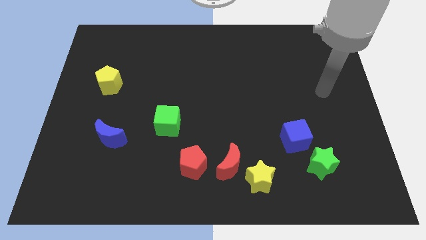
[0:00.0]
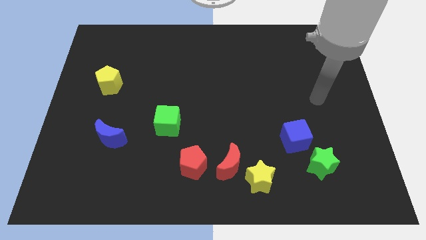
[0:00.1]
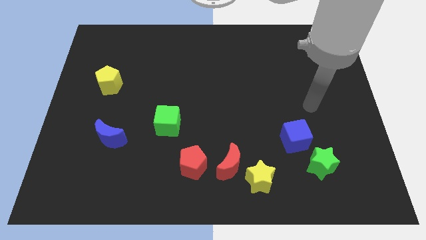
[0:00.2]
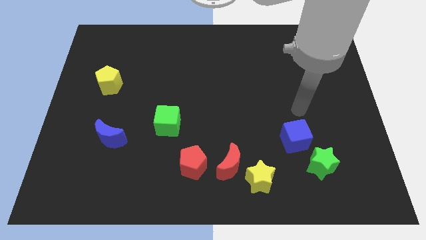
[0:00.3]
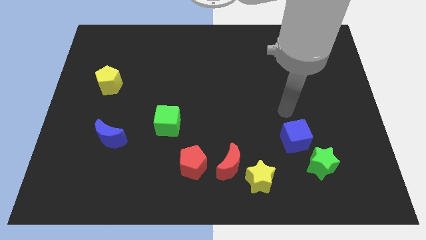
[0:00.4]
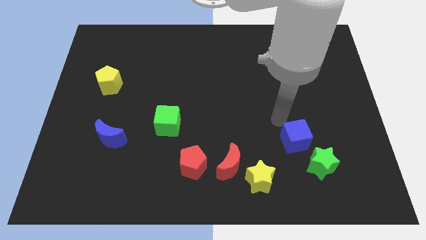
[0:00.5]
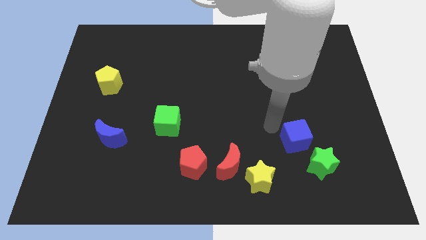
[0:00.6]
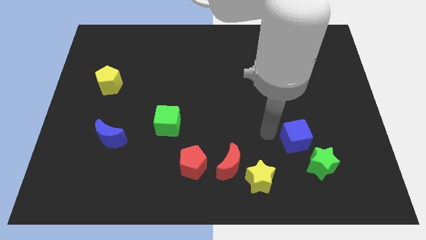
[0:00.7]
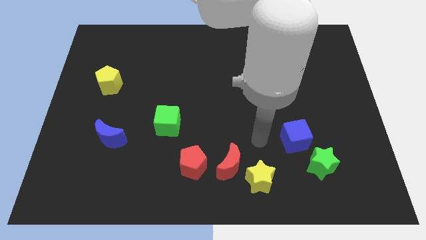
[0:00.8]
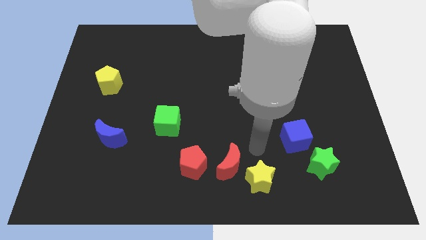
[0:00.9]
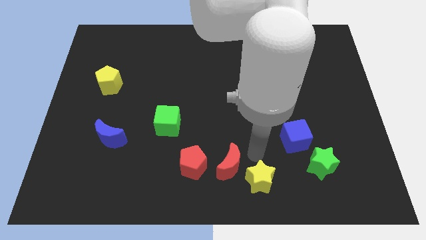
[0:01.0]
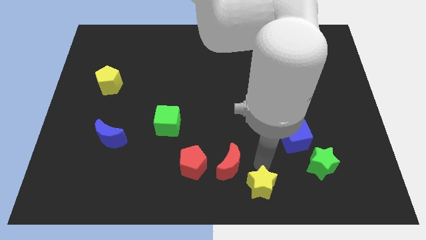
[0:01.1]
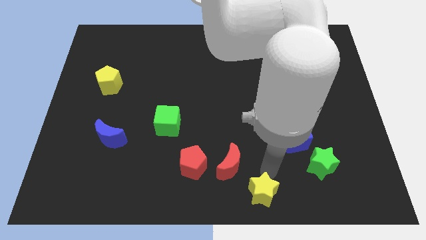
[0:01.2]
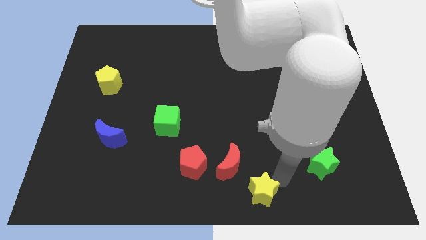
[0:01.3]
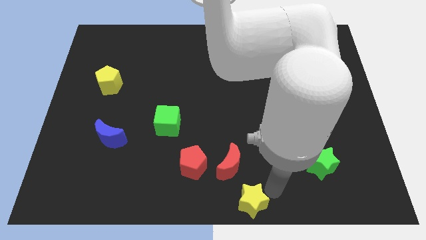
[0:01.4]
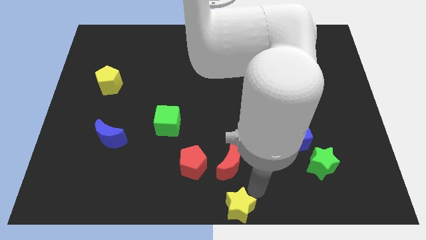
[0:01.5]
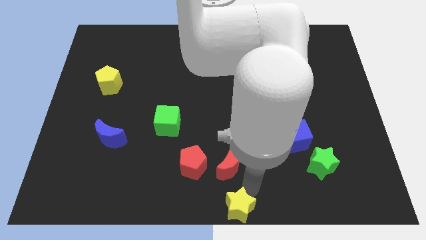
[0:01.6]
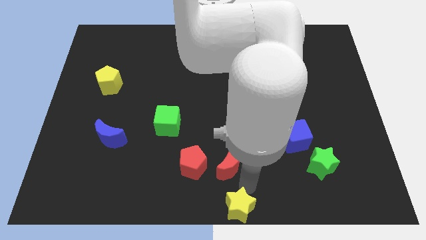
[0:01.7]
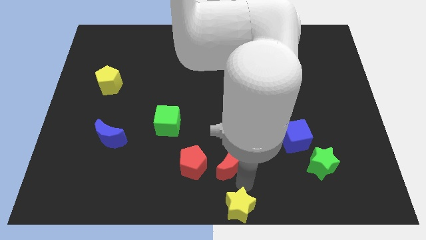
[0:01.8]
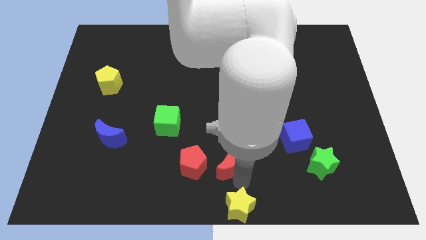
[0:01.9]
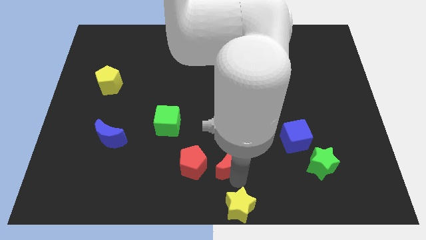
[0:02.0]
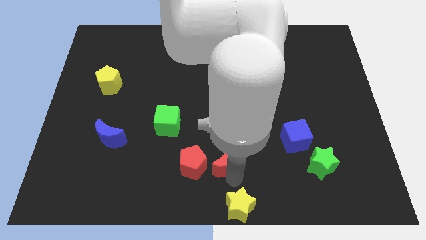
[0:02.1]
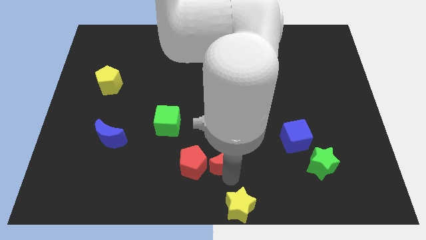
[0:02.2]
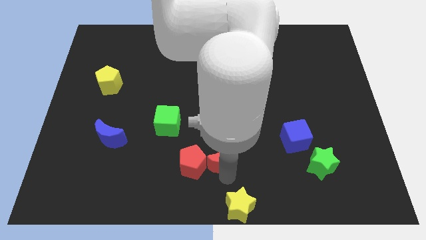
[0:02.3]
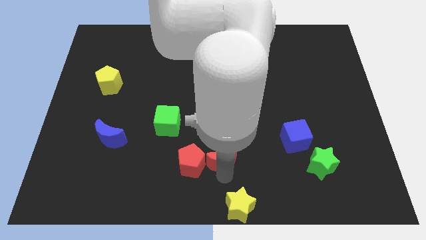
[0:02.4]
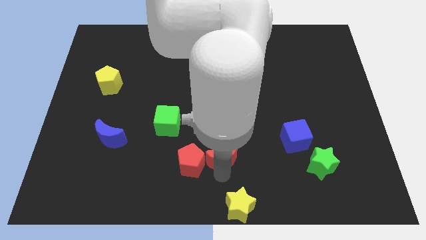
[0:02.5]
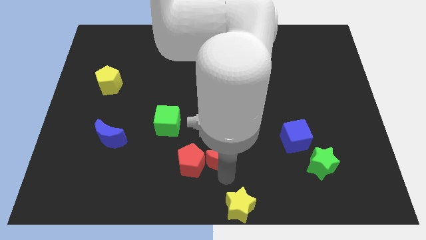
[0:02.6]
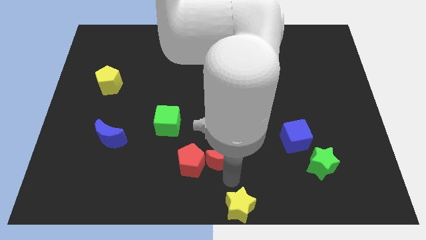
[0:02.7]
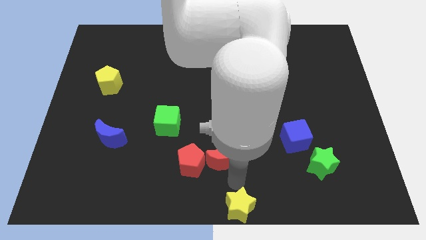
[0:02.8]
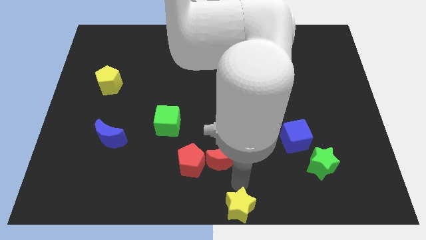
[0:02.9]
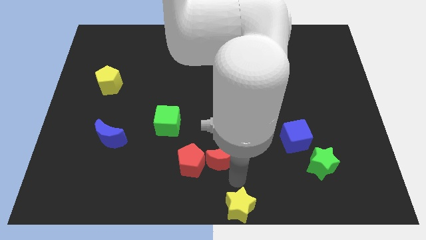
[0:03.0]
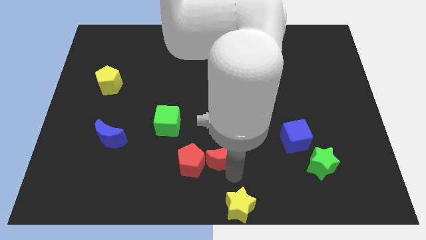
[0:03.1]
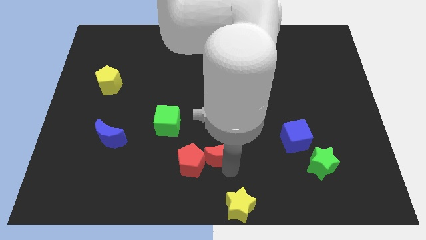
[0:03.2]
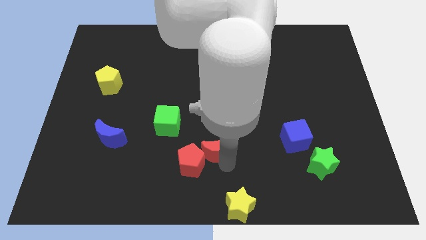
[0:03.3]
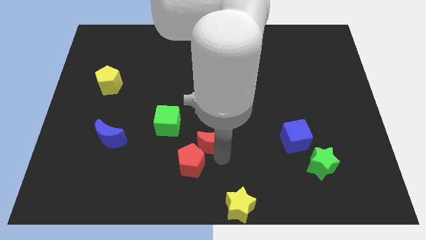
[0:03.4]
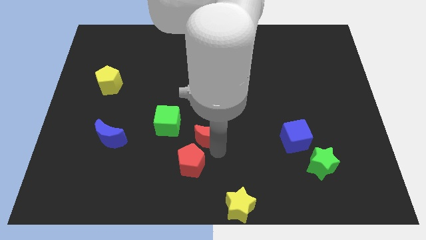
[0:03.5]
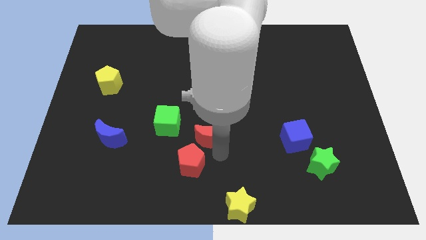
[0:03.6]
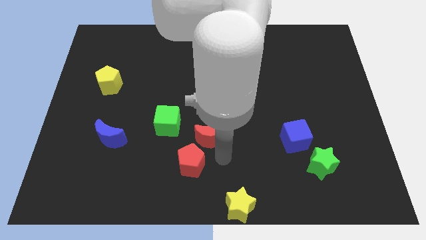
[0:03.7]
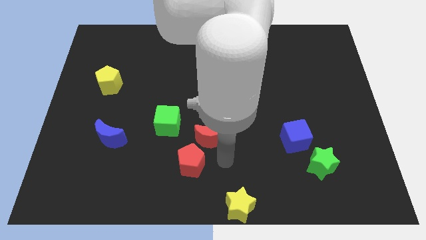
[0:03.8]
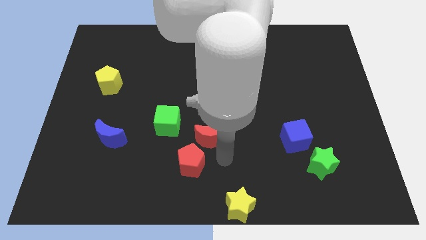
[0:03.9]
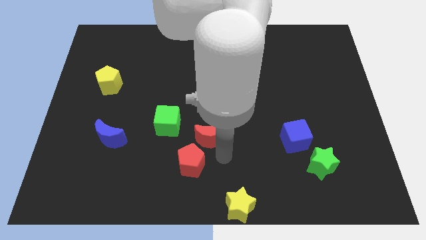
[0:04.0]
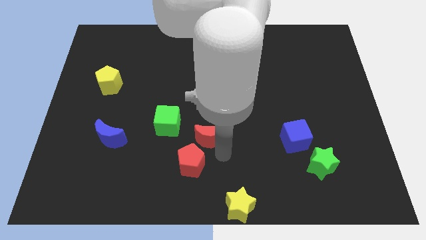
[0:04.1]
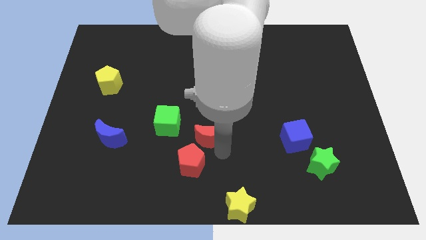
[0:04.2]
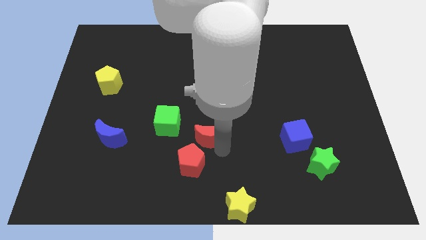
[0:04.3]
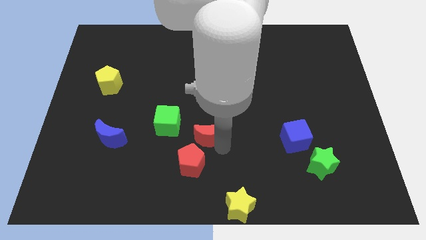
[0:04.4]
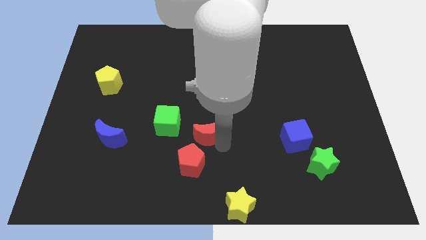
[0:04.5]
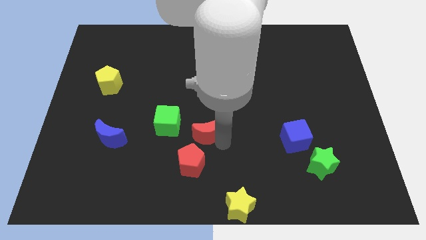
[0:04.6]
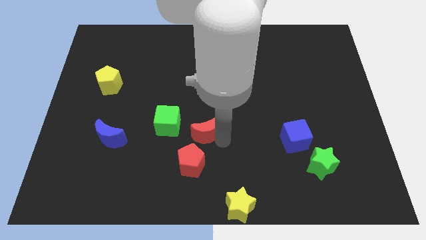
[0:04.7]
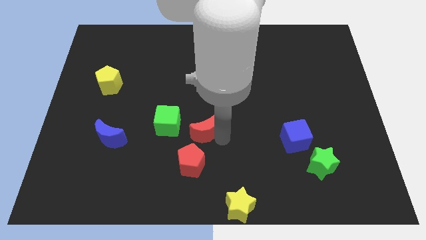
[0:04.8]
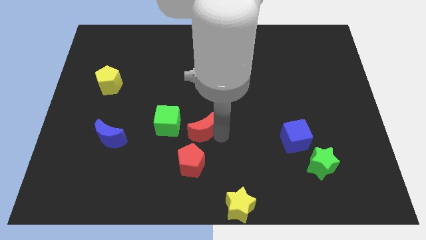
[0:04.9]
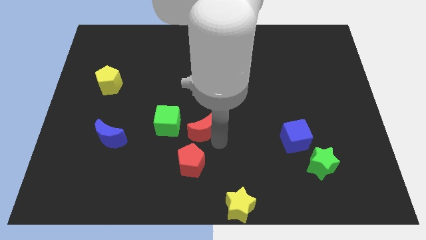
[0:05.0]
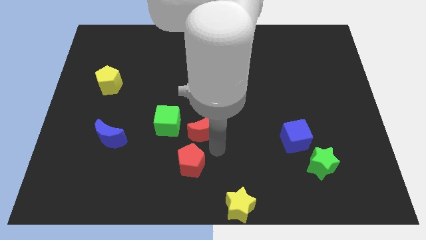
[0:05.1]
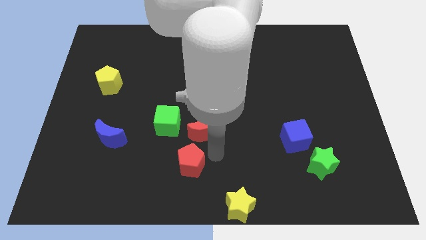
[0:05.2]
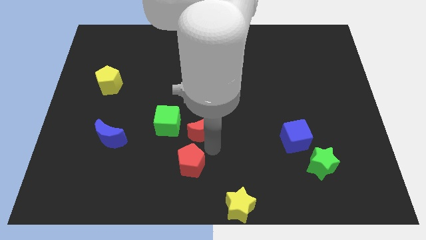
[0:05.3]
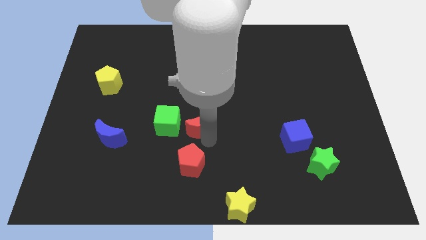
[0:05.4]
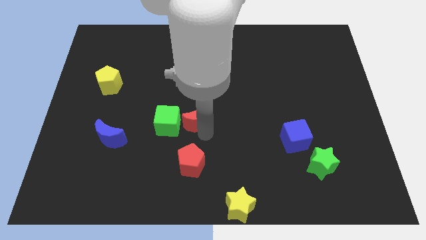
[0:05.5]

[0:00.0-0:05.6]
move the red moon to the top right side of the green cube
